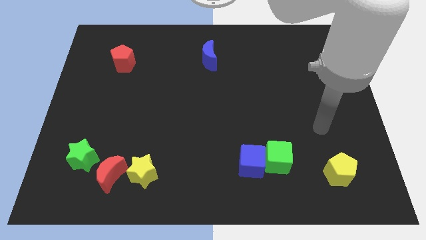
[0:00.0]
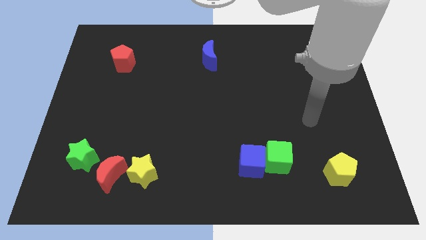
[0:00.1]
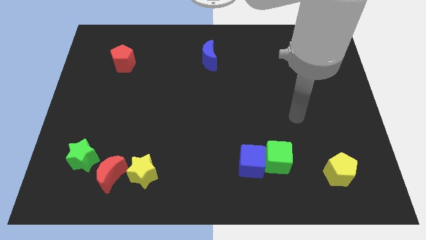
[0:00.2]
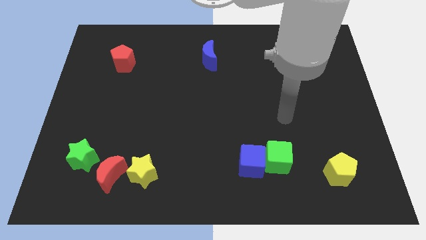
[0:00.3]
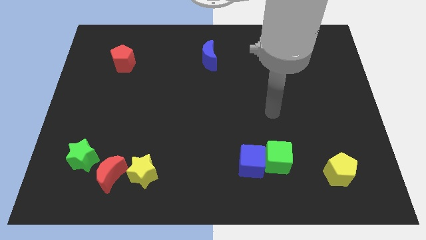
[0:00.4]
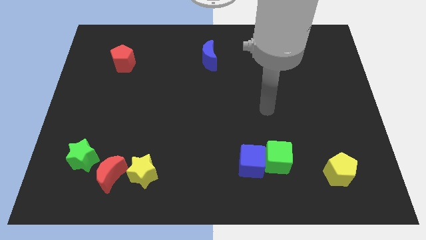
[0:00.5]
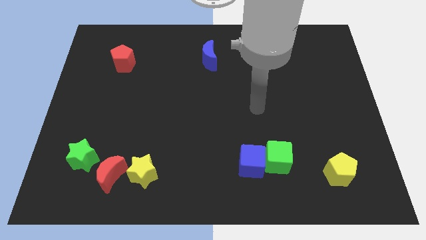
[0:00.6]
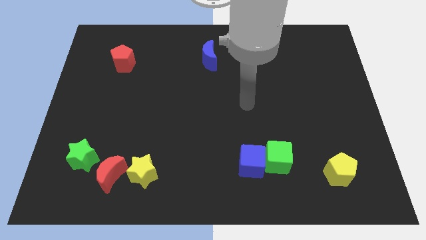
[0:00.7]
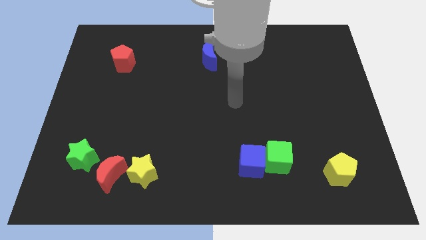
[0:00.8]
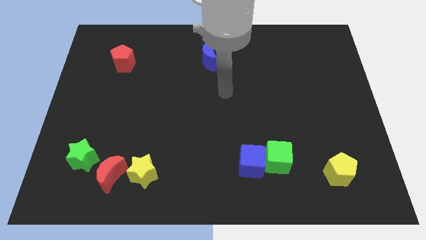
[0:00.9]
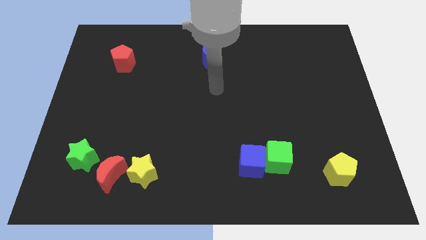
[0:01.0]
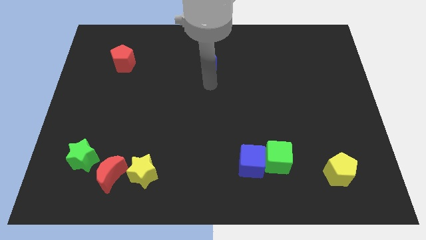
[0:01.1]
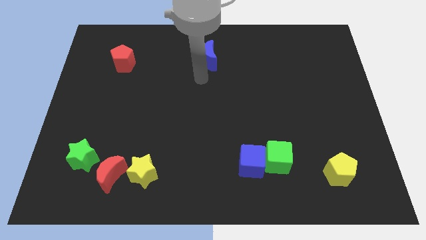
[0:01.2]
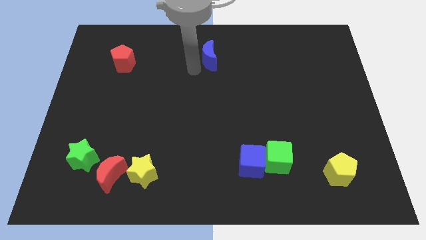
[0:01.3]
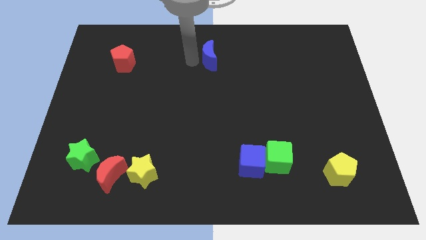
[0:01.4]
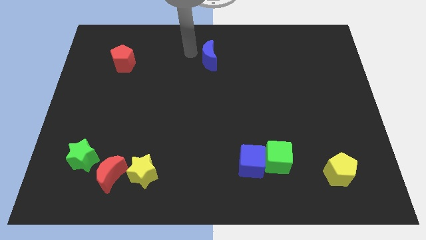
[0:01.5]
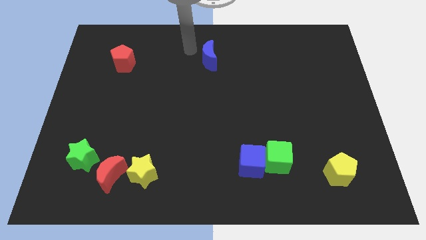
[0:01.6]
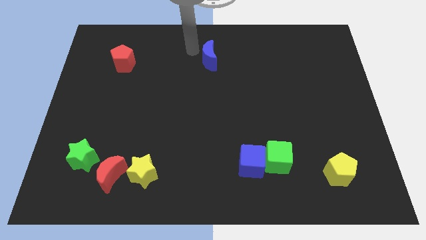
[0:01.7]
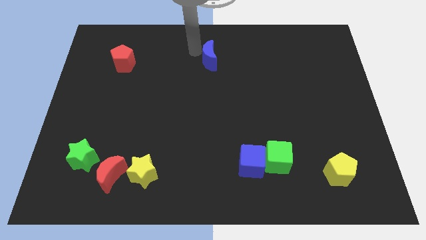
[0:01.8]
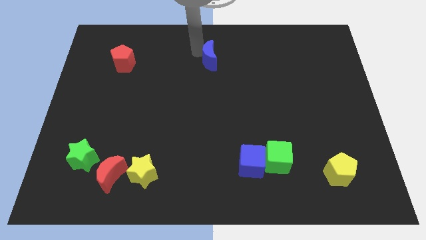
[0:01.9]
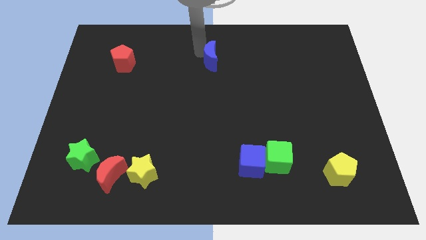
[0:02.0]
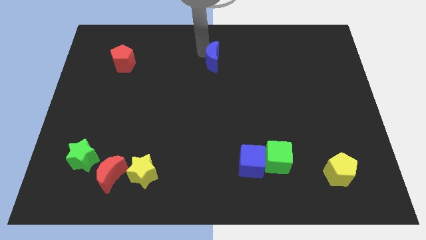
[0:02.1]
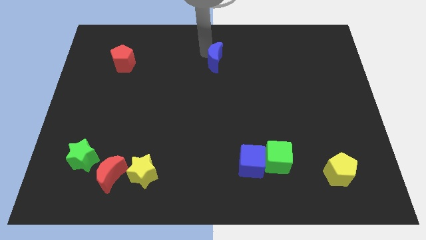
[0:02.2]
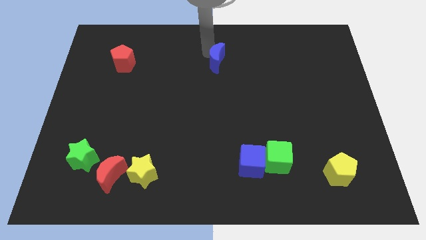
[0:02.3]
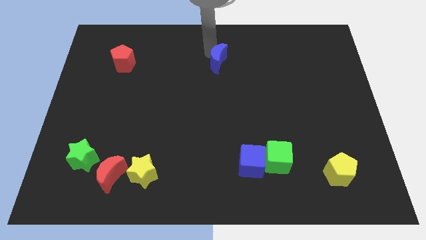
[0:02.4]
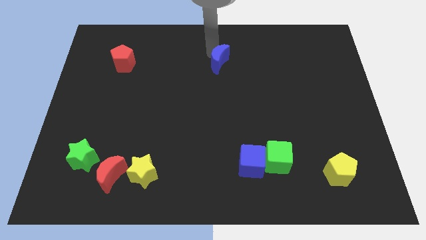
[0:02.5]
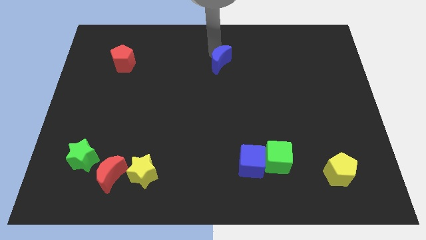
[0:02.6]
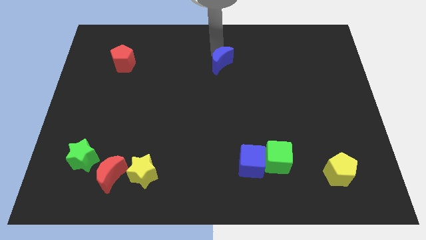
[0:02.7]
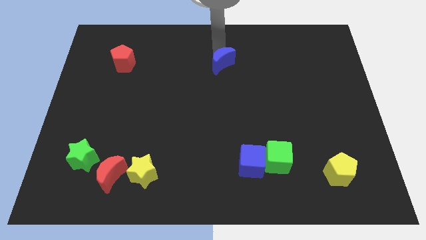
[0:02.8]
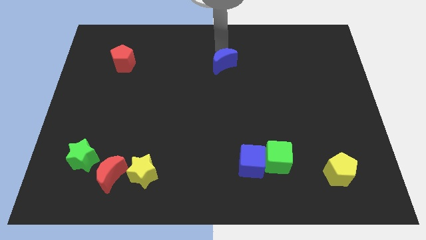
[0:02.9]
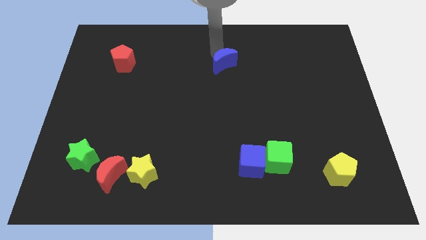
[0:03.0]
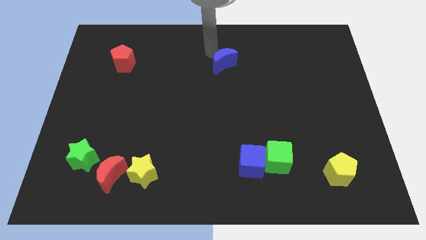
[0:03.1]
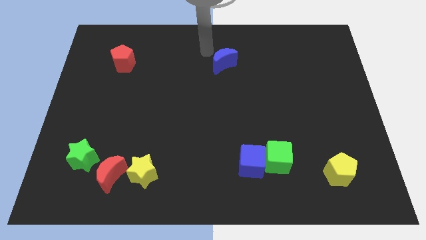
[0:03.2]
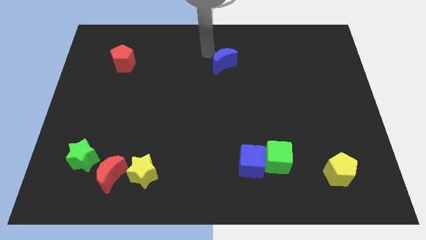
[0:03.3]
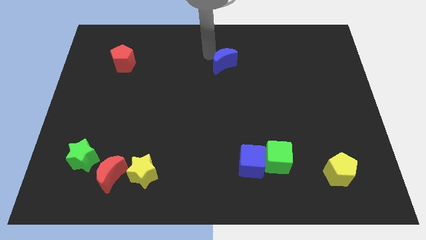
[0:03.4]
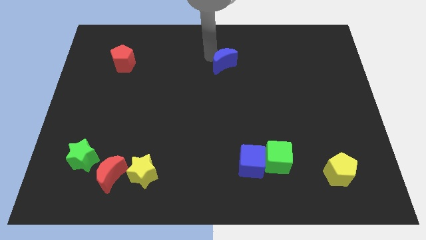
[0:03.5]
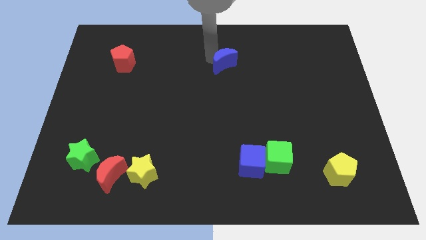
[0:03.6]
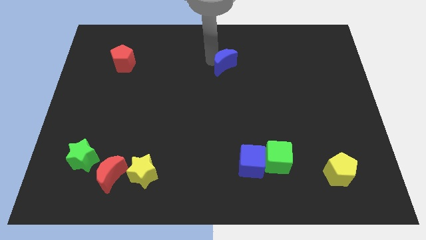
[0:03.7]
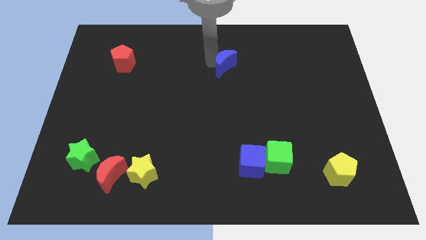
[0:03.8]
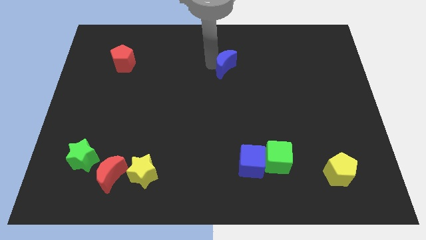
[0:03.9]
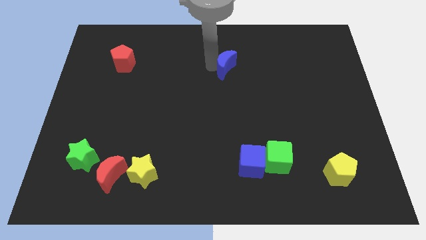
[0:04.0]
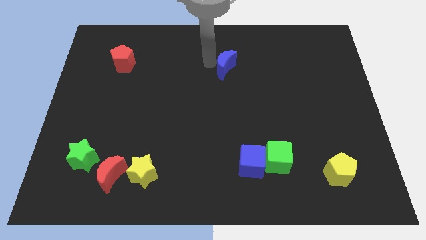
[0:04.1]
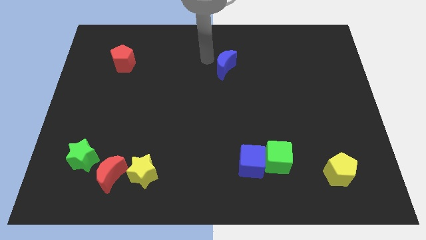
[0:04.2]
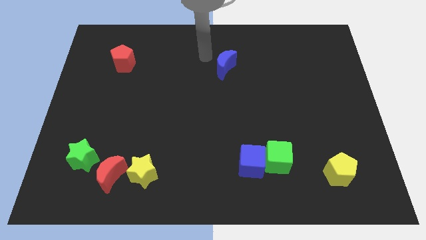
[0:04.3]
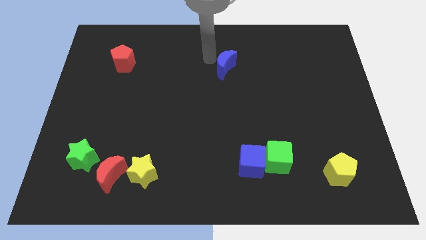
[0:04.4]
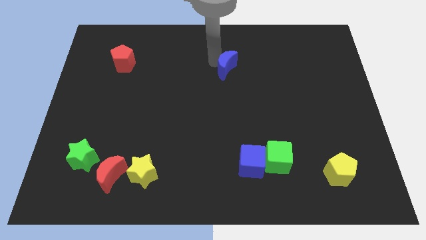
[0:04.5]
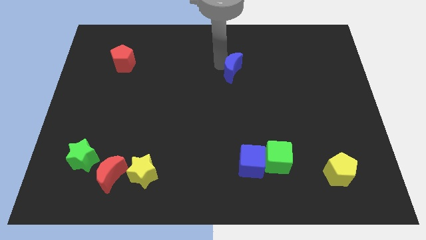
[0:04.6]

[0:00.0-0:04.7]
push the blue moon slightly down and then to the right

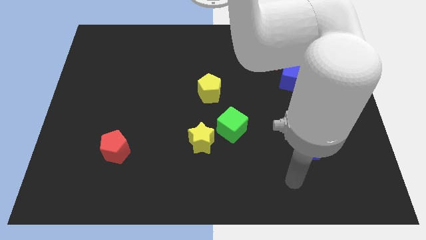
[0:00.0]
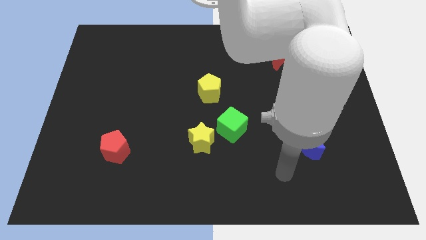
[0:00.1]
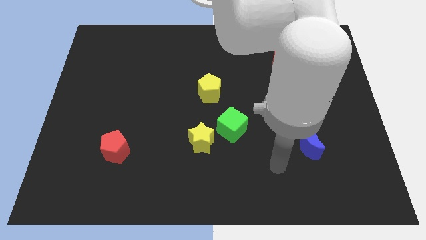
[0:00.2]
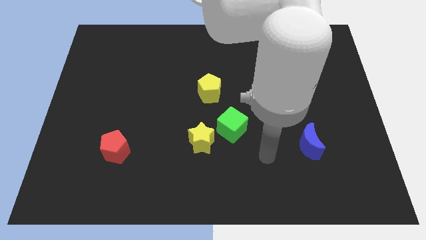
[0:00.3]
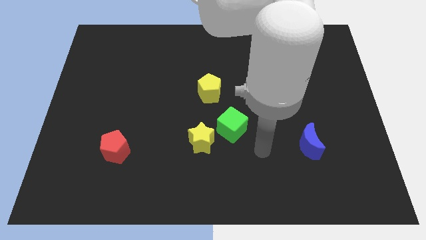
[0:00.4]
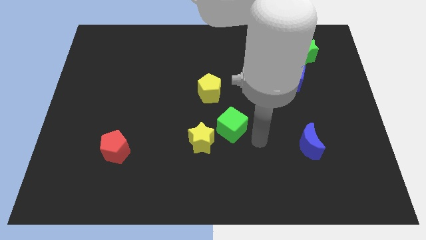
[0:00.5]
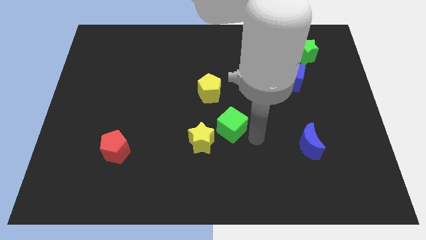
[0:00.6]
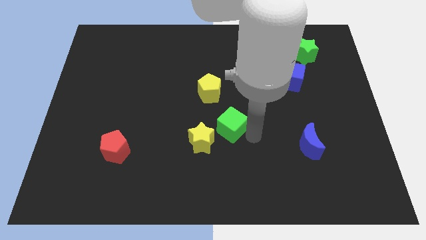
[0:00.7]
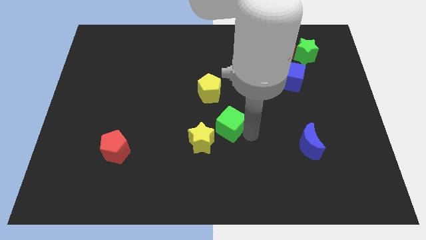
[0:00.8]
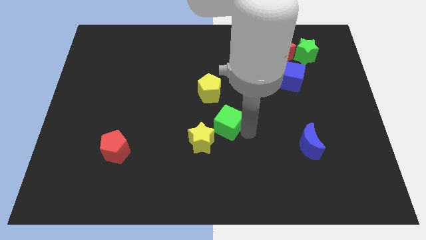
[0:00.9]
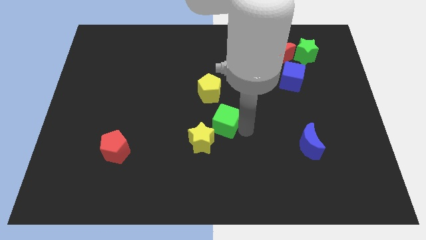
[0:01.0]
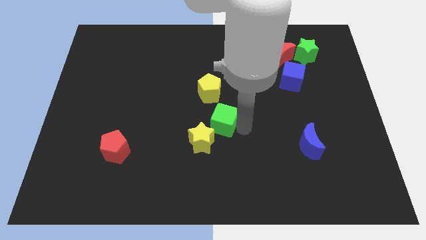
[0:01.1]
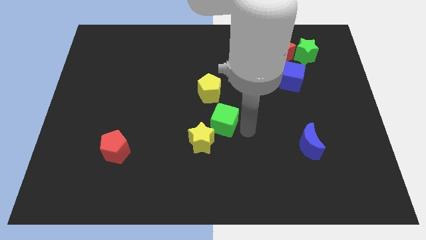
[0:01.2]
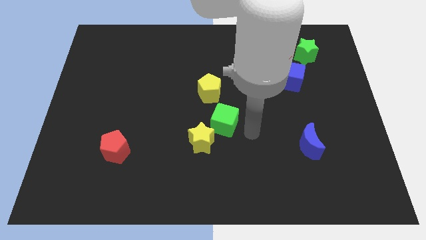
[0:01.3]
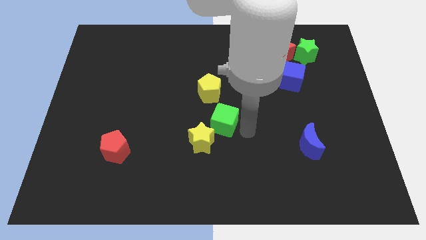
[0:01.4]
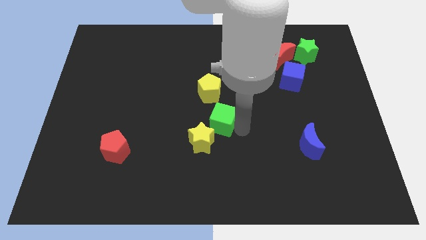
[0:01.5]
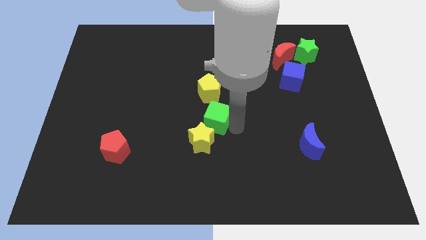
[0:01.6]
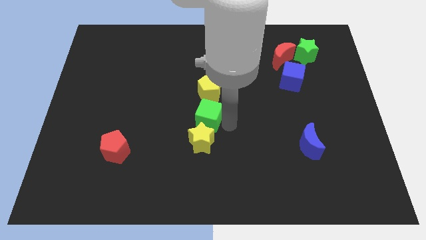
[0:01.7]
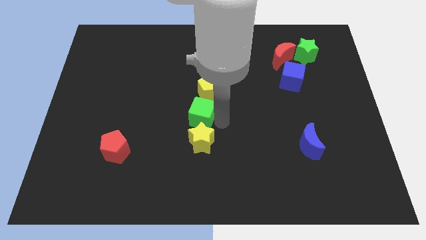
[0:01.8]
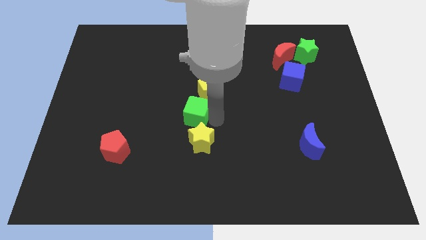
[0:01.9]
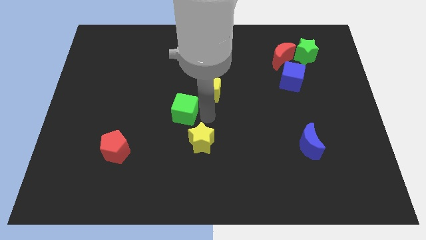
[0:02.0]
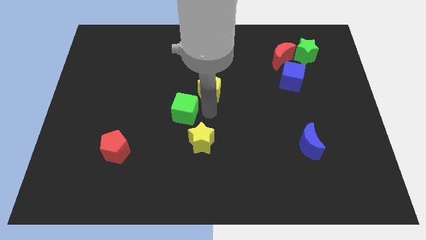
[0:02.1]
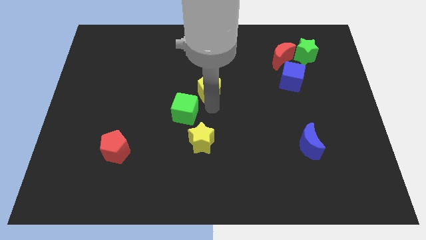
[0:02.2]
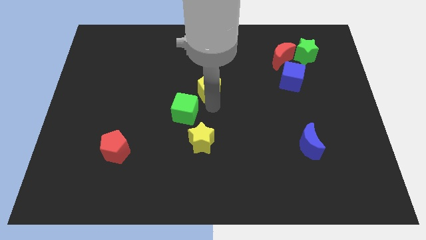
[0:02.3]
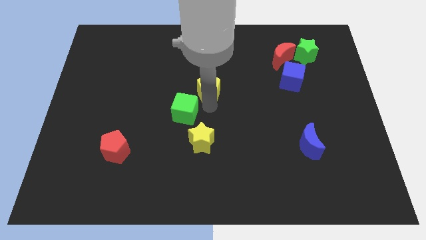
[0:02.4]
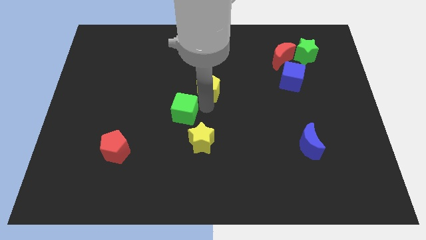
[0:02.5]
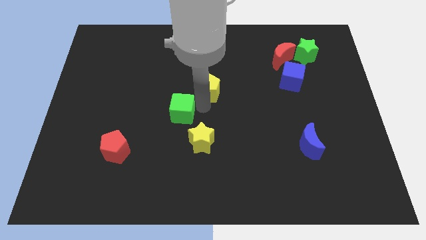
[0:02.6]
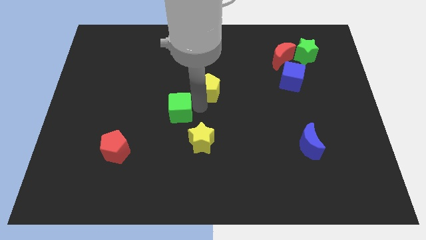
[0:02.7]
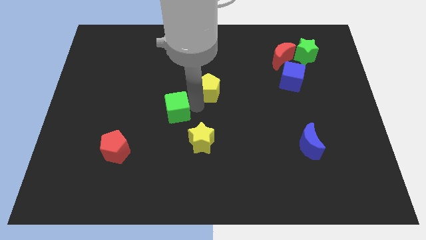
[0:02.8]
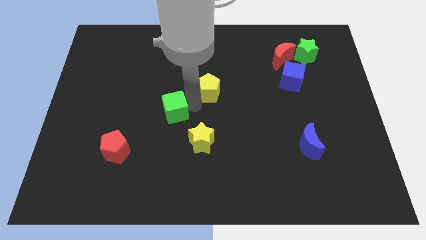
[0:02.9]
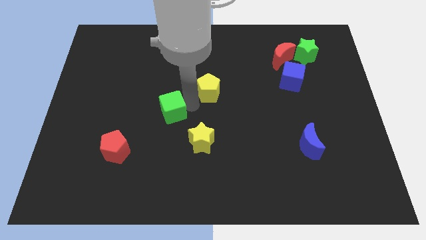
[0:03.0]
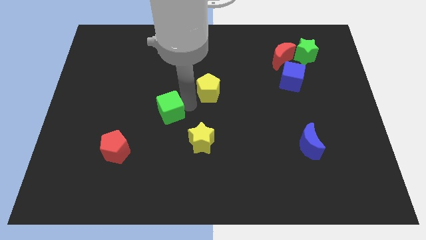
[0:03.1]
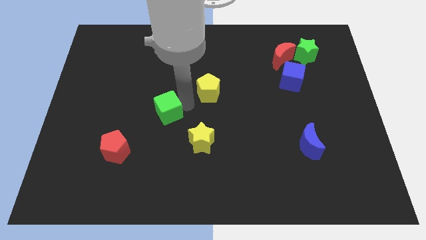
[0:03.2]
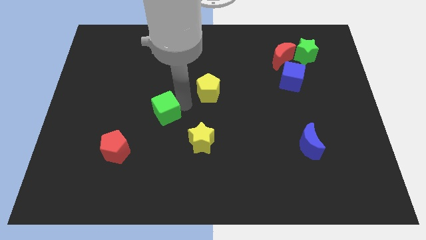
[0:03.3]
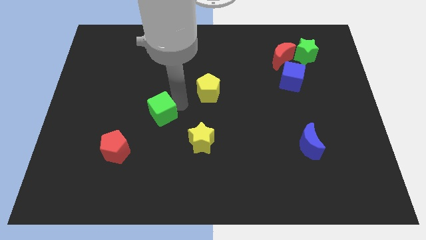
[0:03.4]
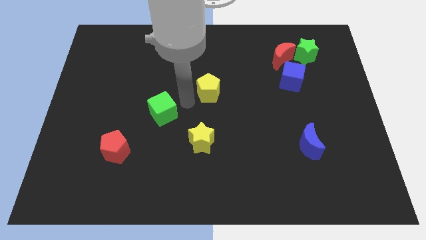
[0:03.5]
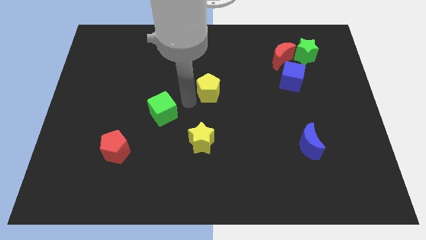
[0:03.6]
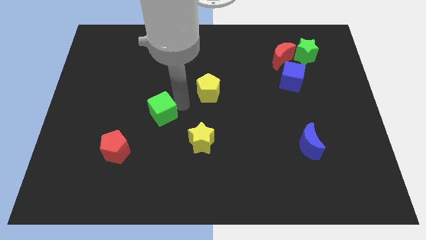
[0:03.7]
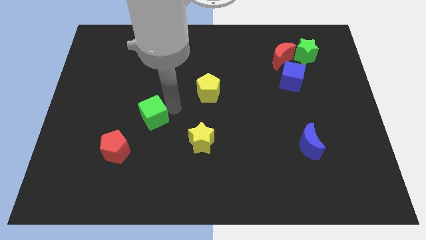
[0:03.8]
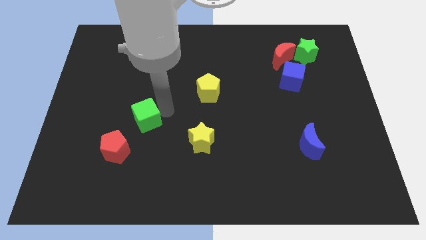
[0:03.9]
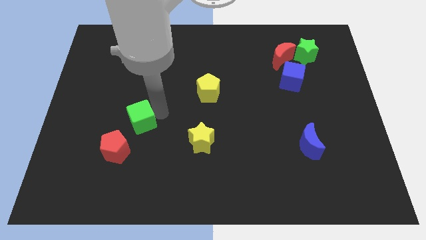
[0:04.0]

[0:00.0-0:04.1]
move the green cube left
